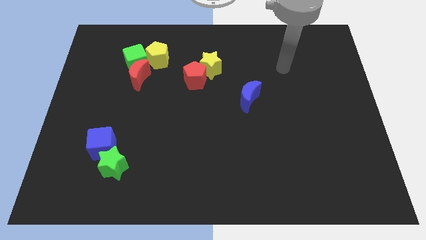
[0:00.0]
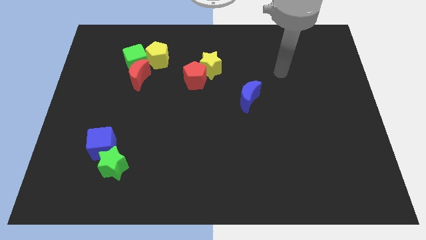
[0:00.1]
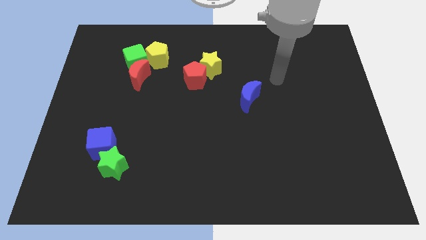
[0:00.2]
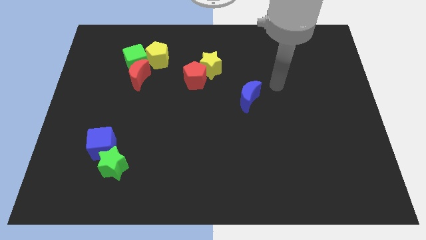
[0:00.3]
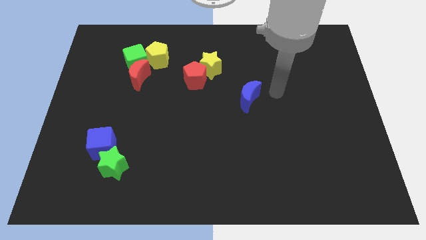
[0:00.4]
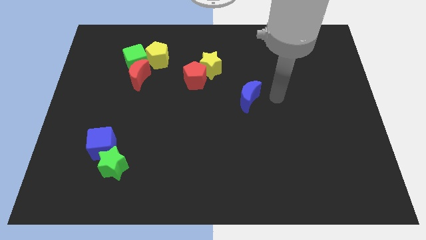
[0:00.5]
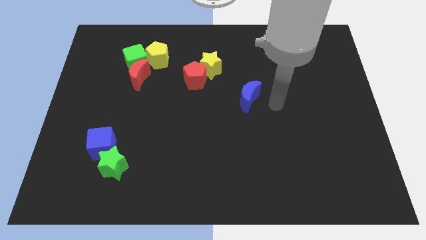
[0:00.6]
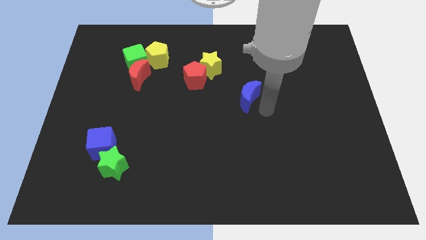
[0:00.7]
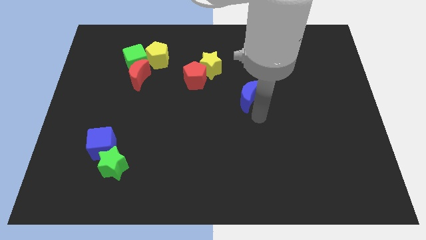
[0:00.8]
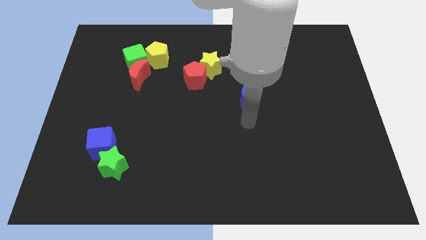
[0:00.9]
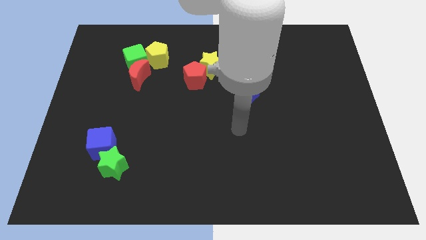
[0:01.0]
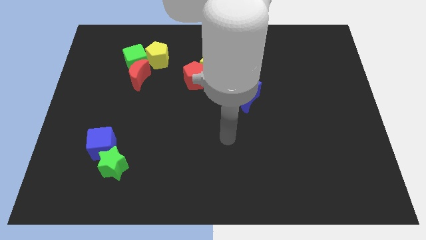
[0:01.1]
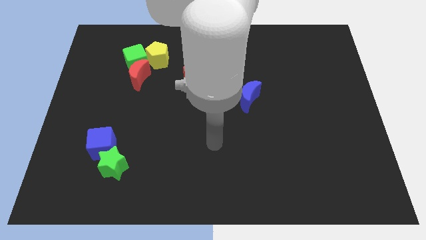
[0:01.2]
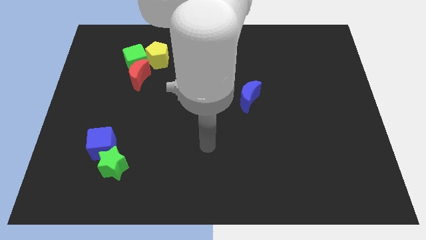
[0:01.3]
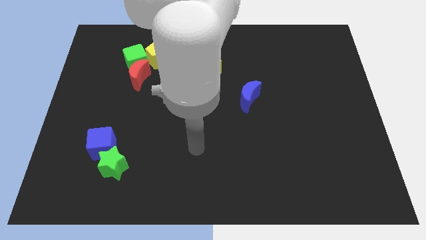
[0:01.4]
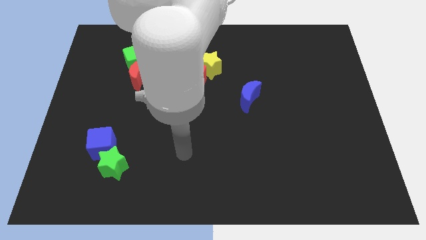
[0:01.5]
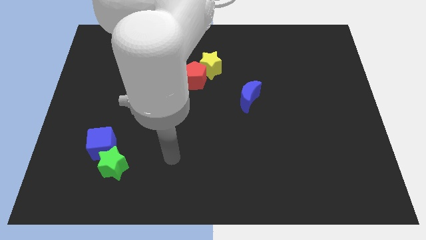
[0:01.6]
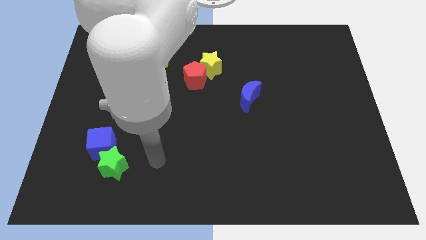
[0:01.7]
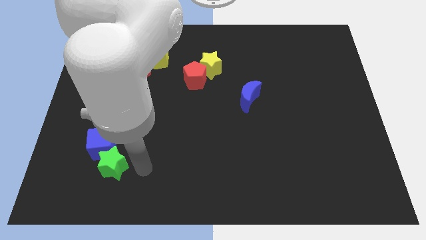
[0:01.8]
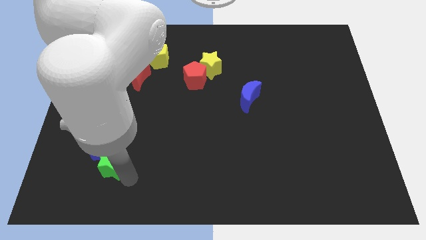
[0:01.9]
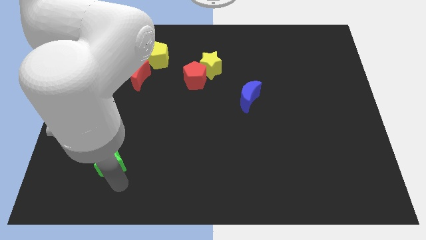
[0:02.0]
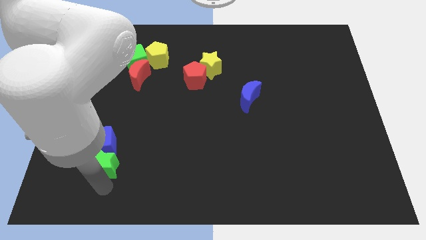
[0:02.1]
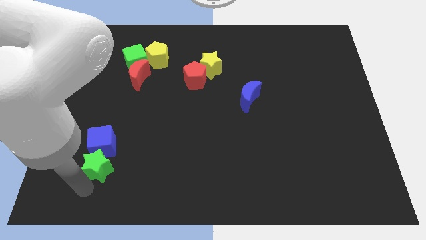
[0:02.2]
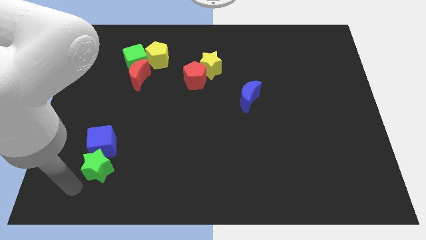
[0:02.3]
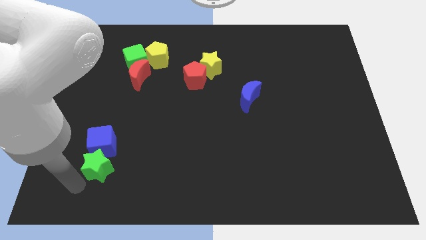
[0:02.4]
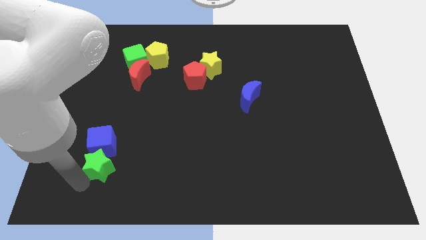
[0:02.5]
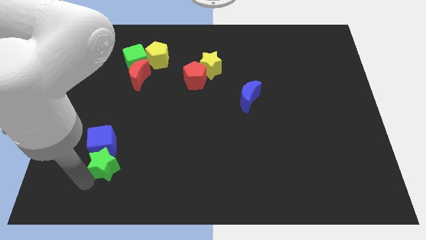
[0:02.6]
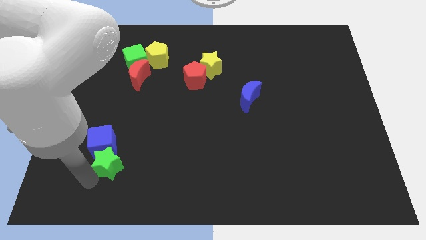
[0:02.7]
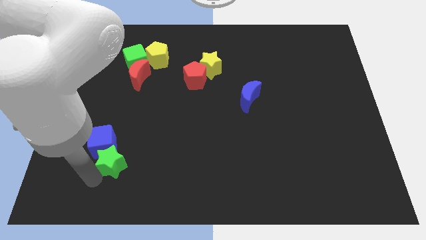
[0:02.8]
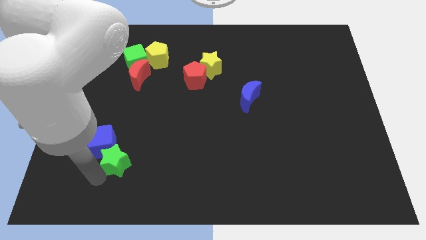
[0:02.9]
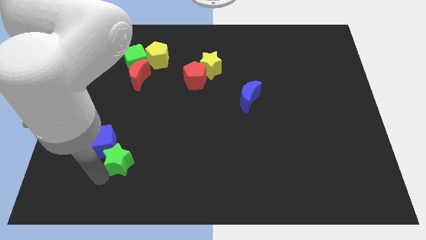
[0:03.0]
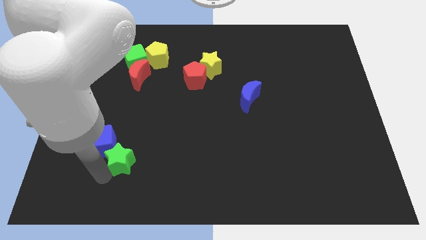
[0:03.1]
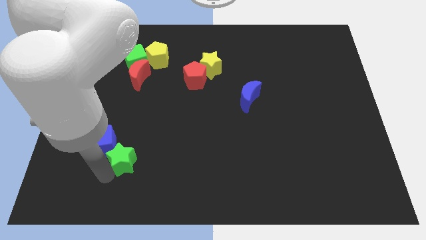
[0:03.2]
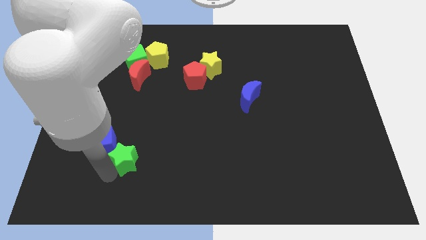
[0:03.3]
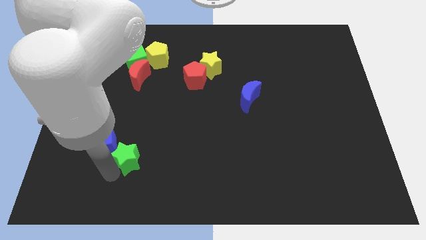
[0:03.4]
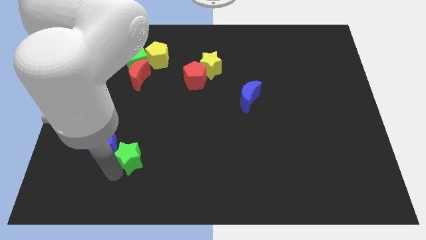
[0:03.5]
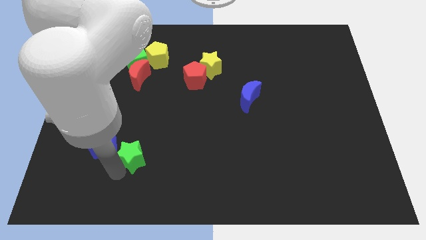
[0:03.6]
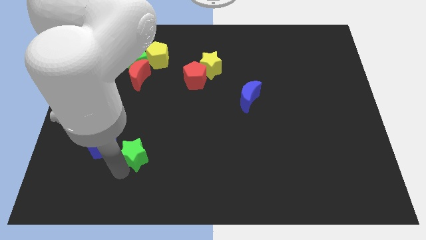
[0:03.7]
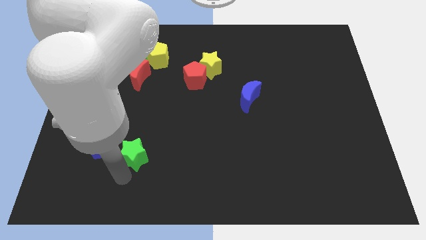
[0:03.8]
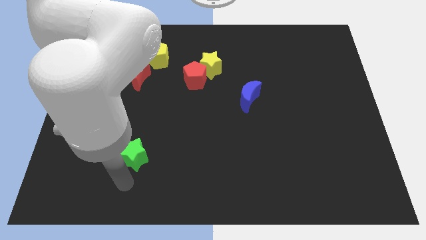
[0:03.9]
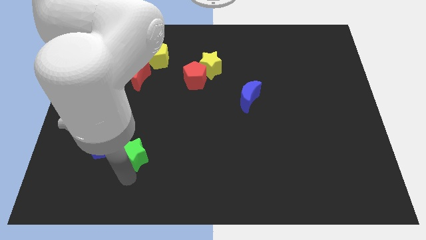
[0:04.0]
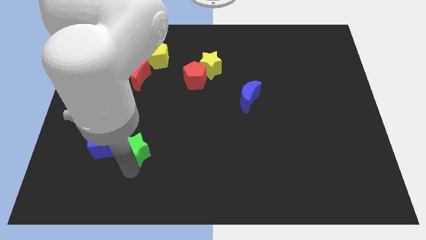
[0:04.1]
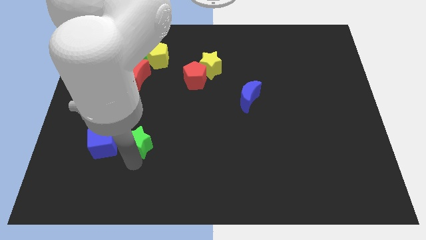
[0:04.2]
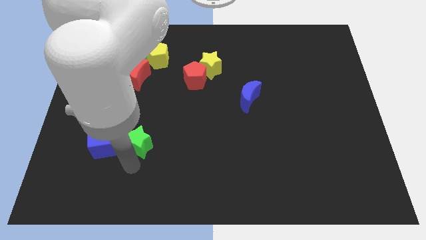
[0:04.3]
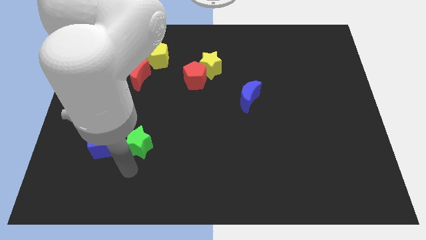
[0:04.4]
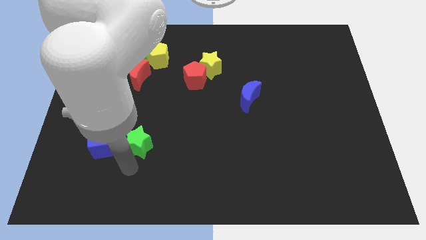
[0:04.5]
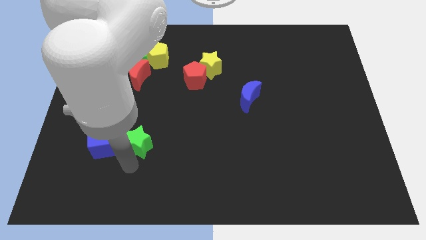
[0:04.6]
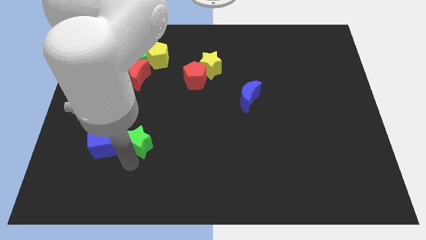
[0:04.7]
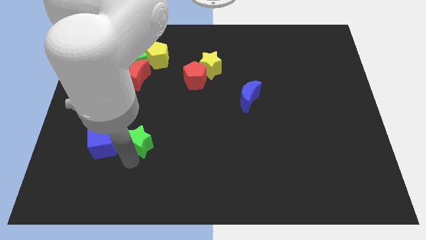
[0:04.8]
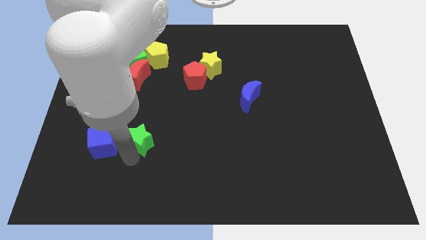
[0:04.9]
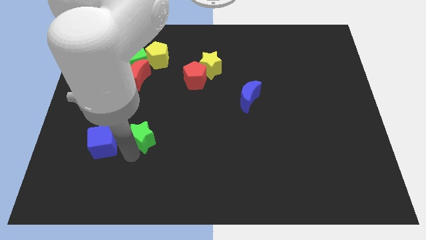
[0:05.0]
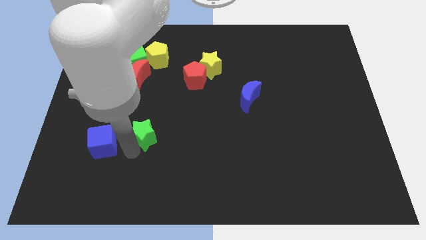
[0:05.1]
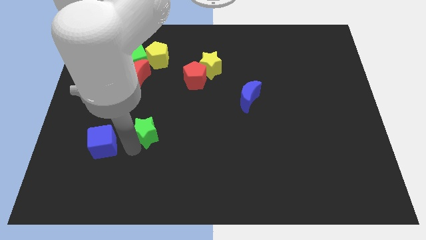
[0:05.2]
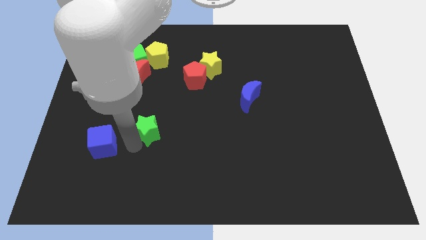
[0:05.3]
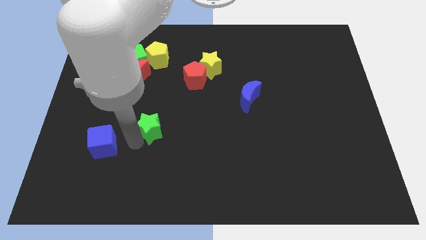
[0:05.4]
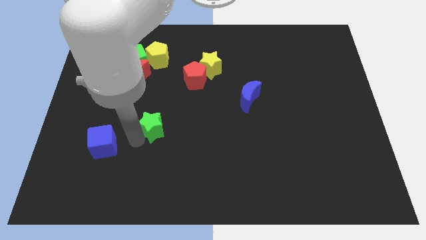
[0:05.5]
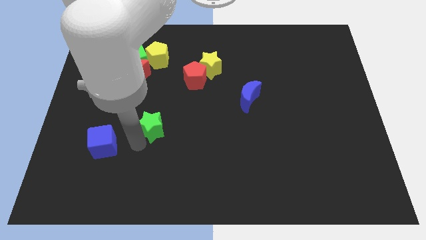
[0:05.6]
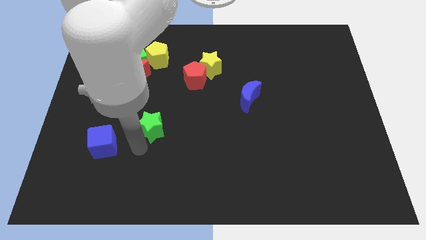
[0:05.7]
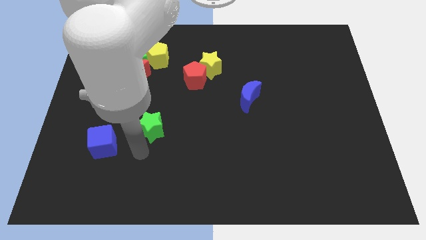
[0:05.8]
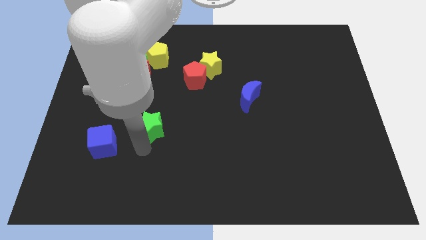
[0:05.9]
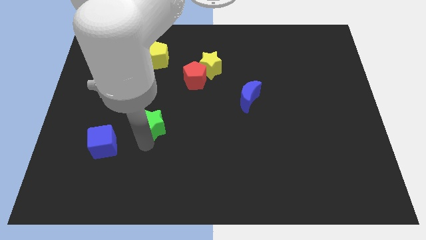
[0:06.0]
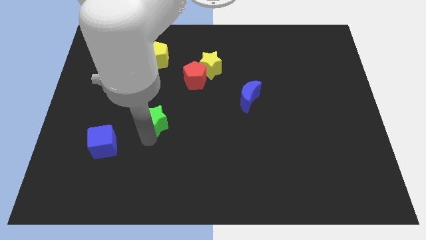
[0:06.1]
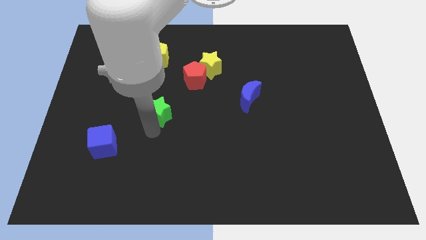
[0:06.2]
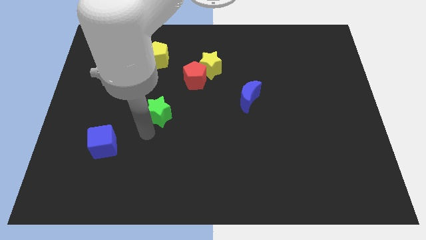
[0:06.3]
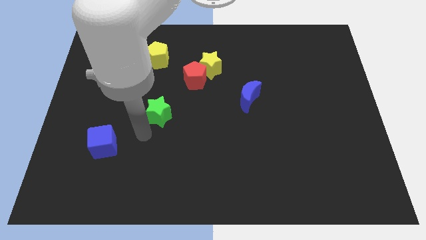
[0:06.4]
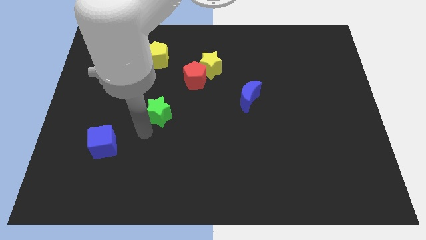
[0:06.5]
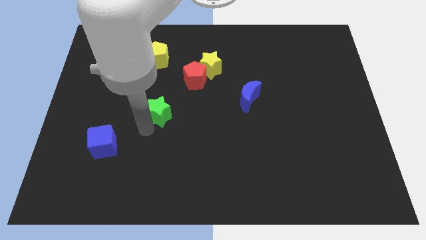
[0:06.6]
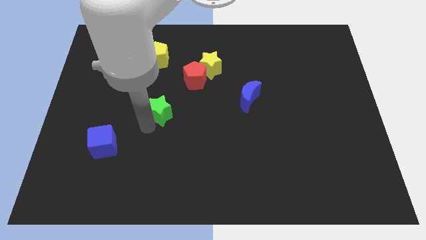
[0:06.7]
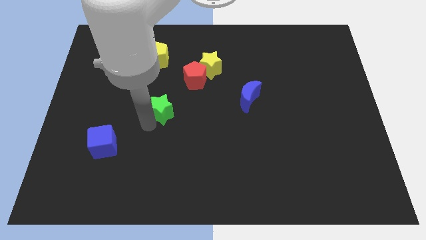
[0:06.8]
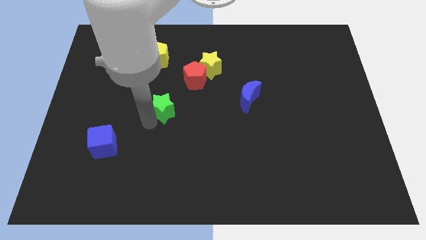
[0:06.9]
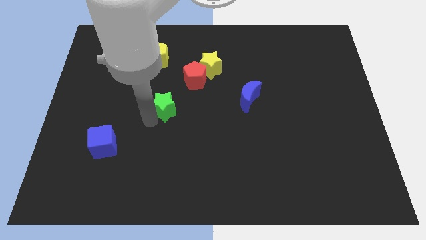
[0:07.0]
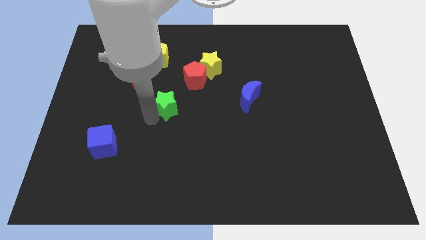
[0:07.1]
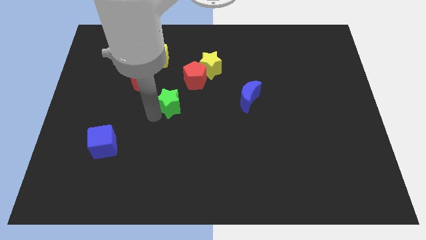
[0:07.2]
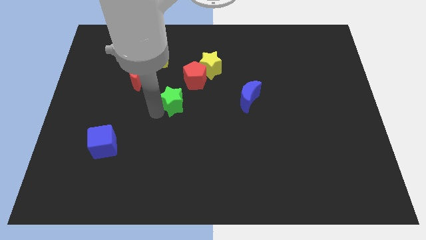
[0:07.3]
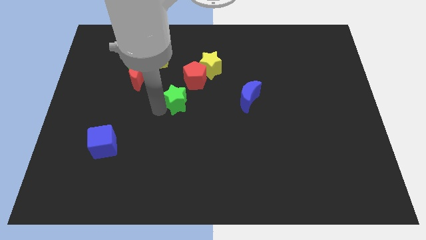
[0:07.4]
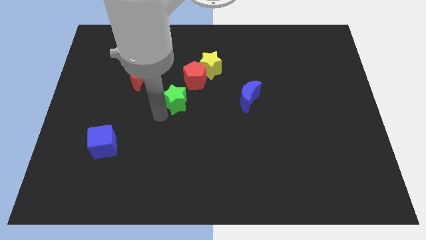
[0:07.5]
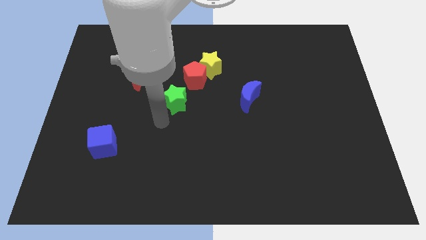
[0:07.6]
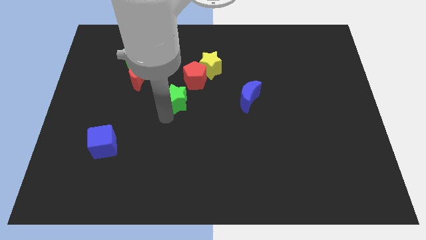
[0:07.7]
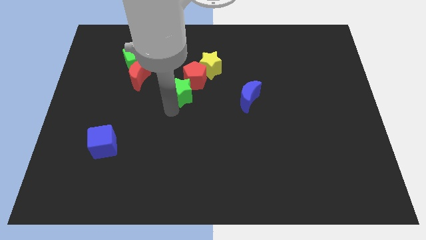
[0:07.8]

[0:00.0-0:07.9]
put the green star close to the red pentagon
